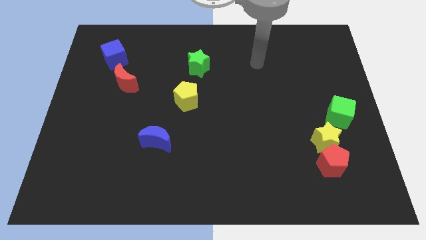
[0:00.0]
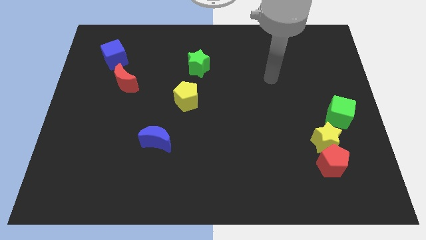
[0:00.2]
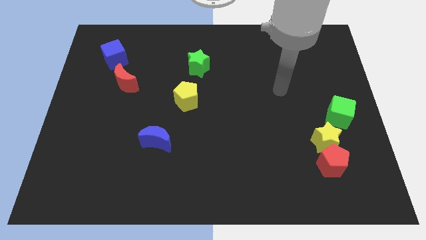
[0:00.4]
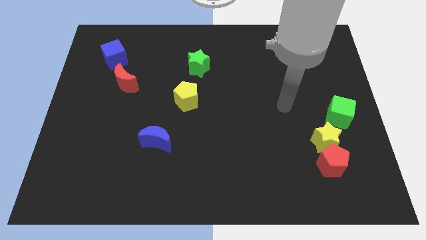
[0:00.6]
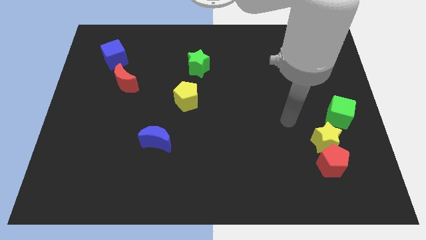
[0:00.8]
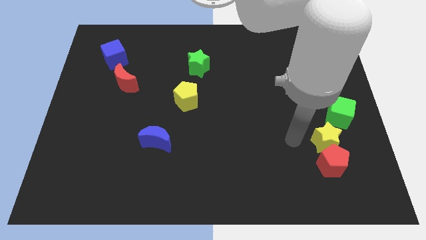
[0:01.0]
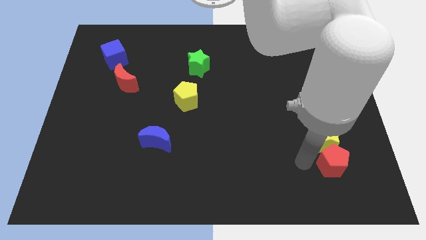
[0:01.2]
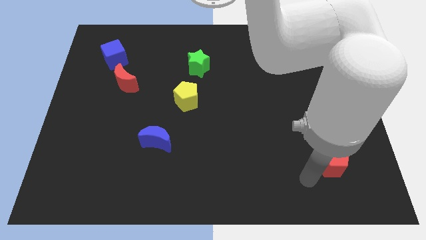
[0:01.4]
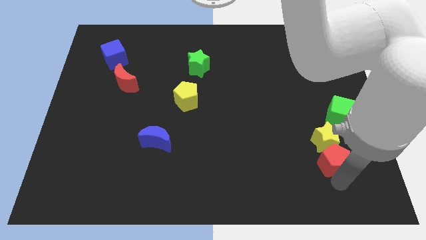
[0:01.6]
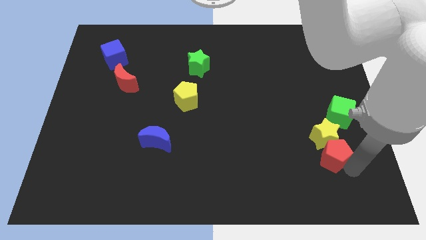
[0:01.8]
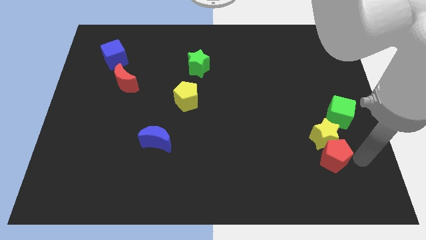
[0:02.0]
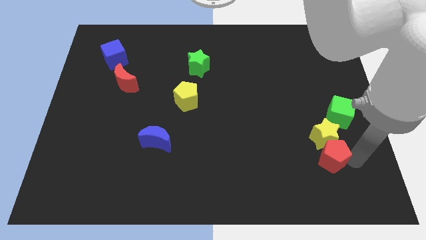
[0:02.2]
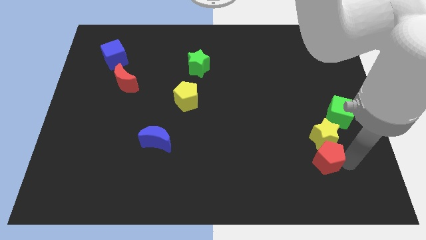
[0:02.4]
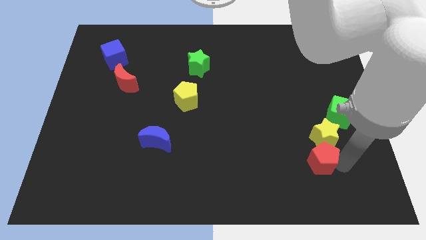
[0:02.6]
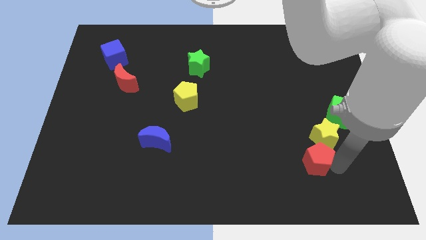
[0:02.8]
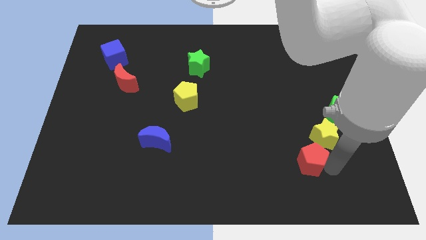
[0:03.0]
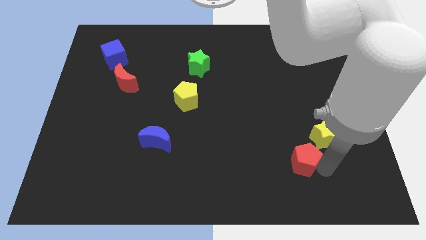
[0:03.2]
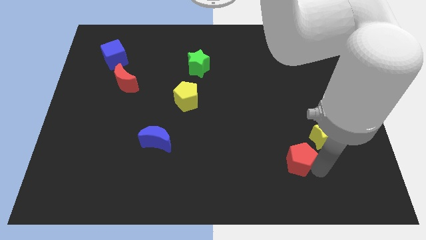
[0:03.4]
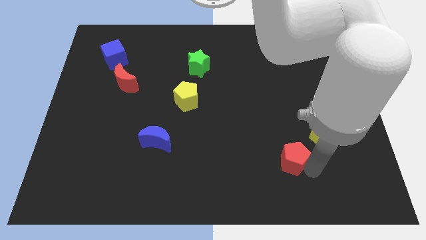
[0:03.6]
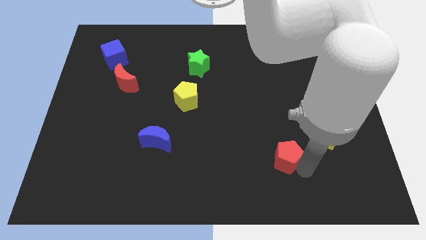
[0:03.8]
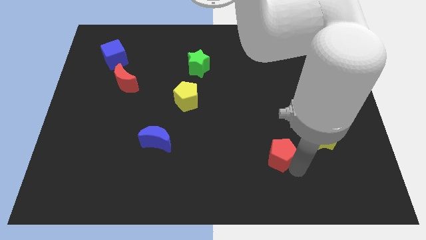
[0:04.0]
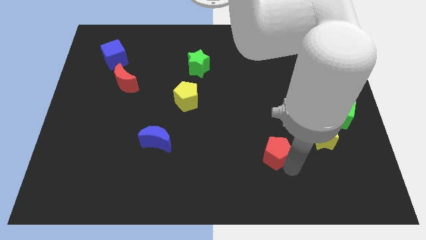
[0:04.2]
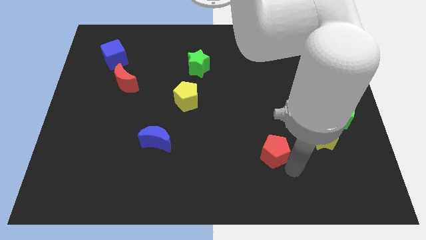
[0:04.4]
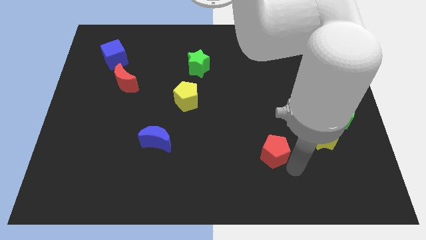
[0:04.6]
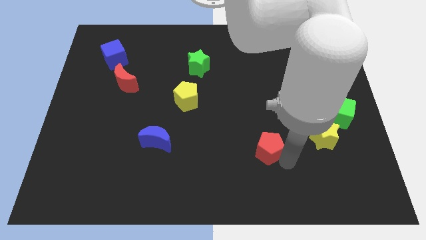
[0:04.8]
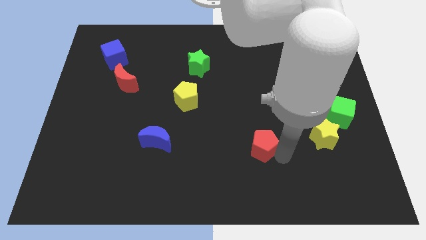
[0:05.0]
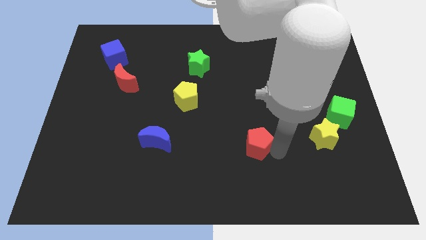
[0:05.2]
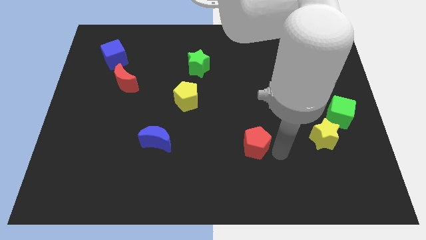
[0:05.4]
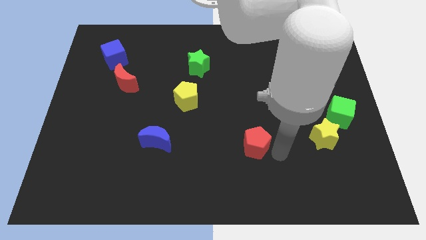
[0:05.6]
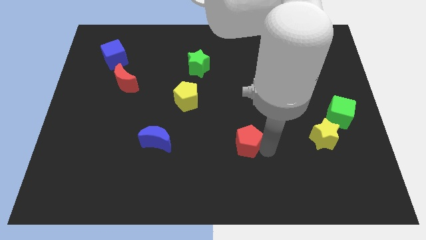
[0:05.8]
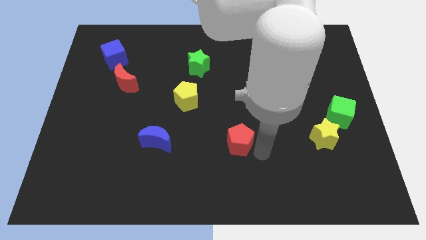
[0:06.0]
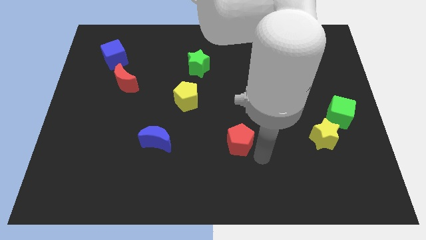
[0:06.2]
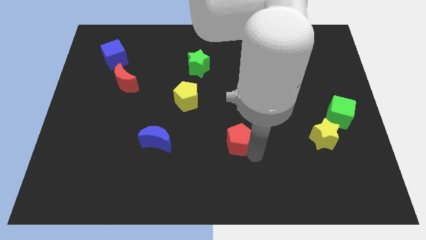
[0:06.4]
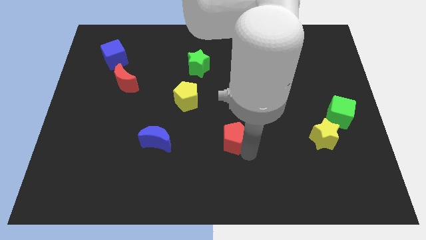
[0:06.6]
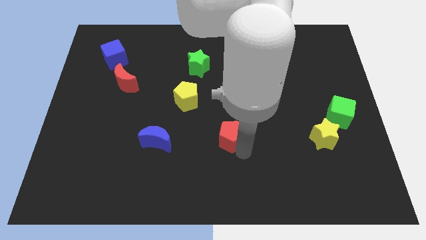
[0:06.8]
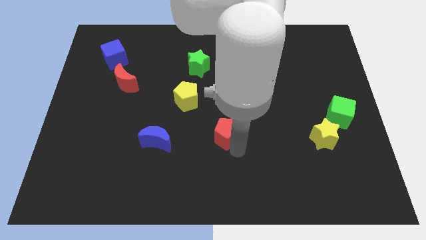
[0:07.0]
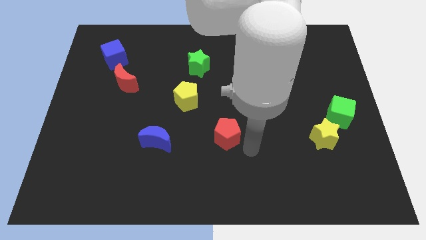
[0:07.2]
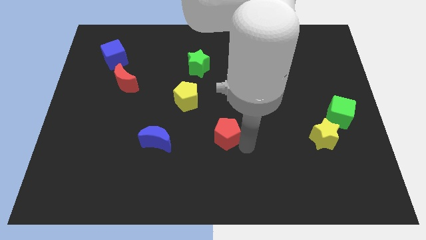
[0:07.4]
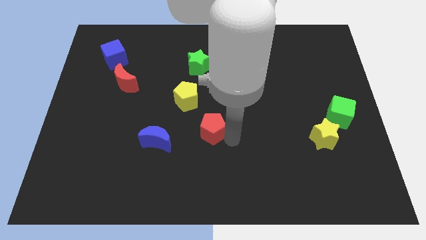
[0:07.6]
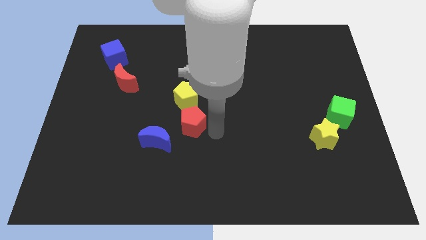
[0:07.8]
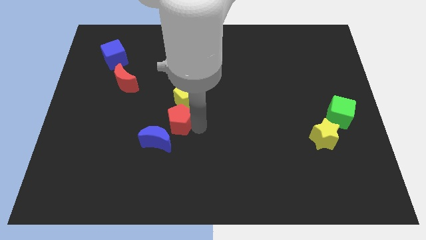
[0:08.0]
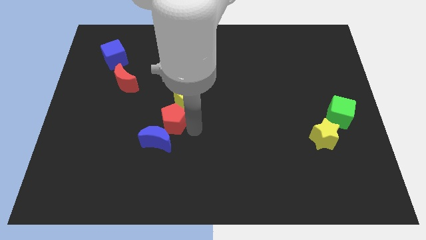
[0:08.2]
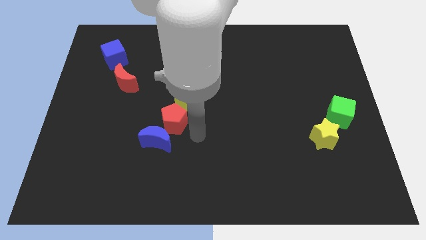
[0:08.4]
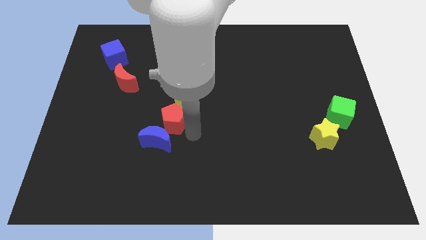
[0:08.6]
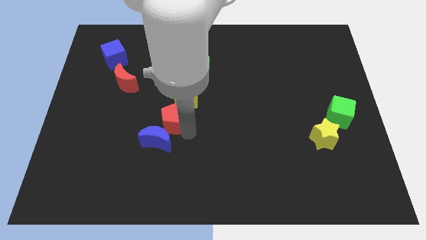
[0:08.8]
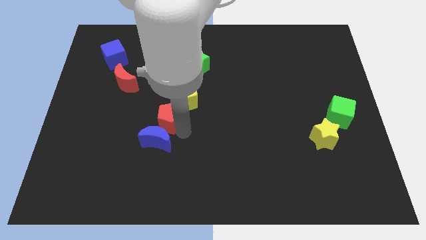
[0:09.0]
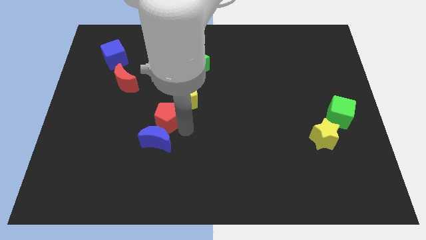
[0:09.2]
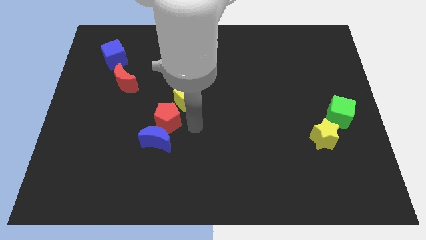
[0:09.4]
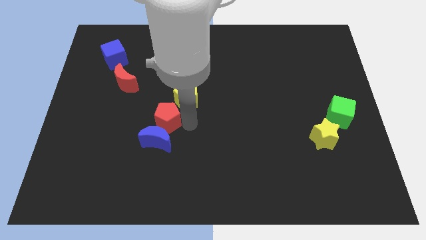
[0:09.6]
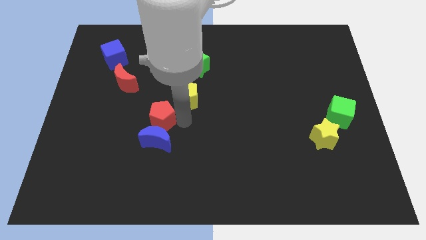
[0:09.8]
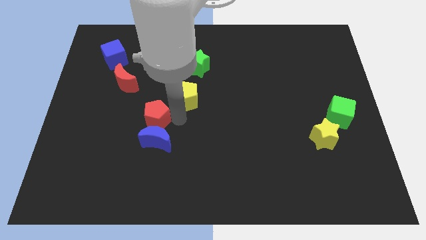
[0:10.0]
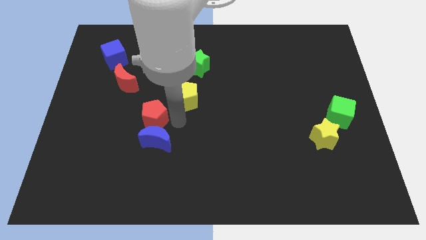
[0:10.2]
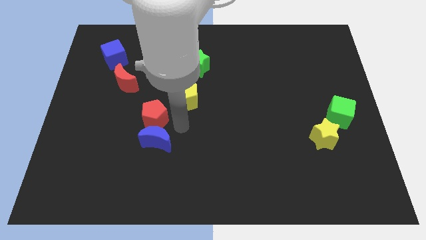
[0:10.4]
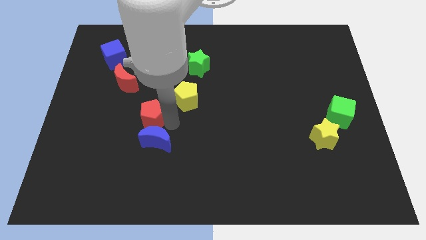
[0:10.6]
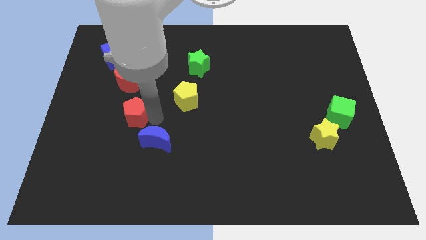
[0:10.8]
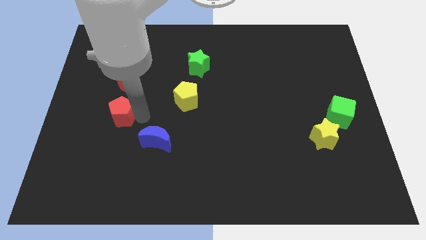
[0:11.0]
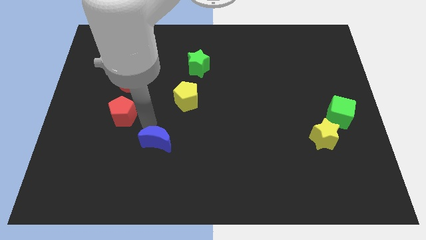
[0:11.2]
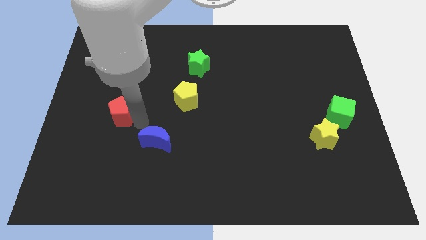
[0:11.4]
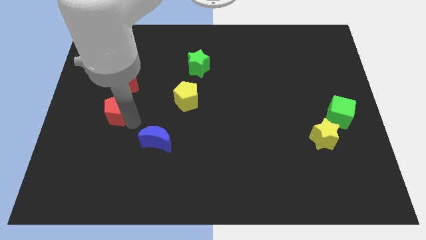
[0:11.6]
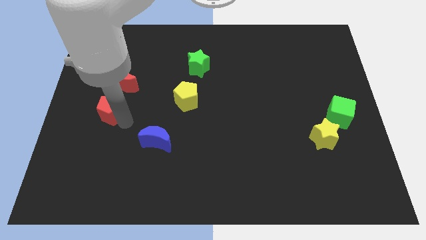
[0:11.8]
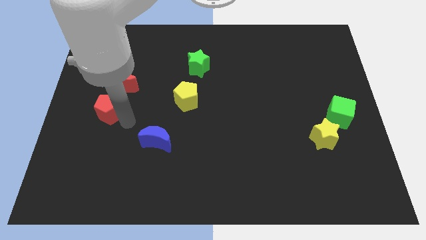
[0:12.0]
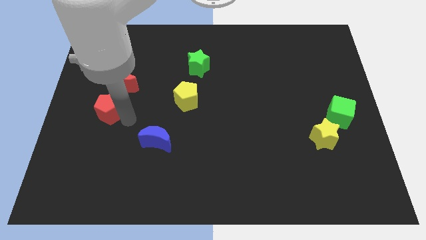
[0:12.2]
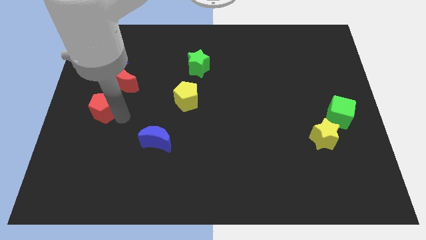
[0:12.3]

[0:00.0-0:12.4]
put the red pentagon to the left side of the board
